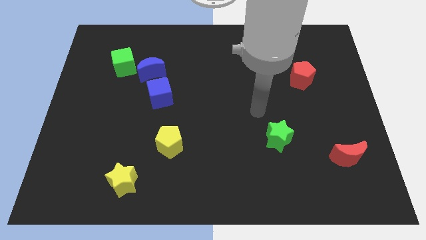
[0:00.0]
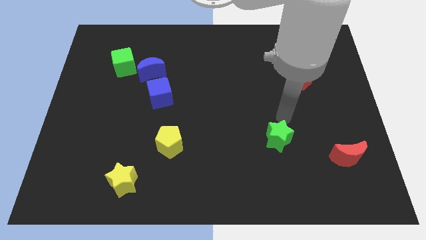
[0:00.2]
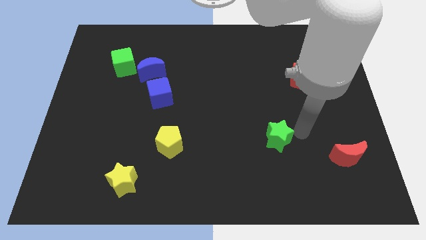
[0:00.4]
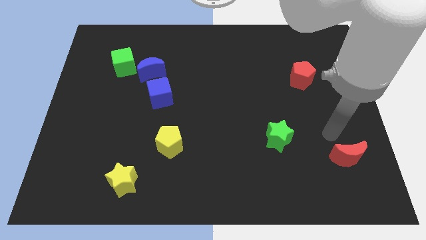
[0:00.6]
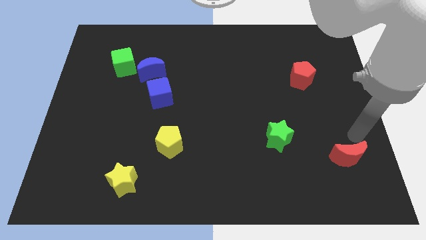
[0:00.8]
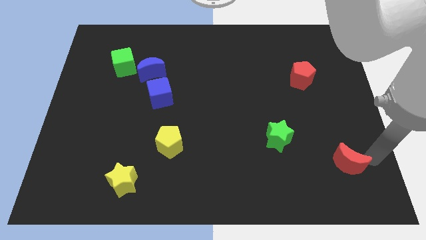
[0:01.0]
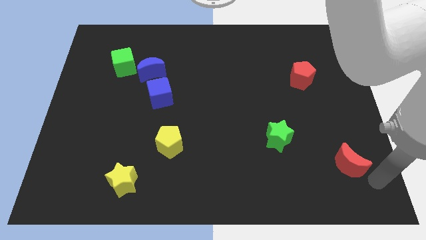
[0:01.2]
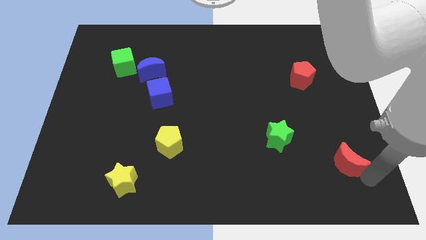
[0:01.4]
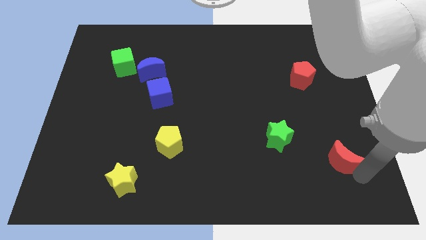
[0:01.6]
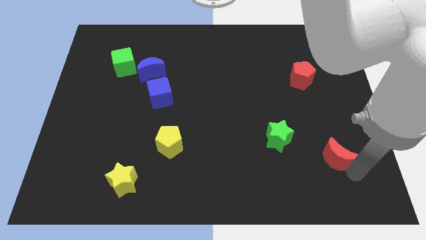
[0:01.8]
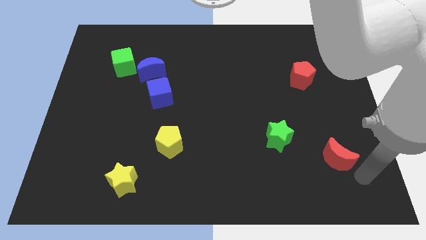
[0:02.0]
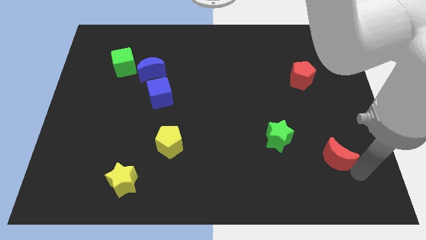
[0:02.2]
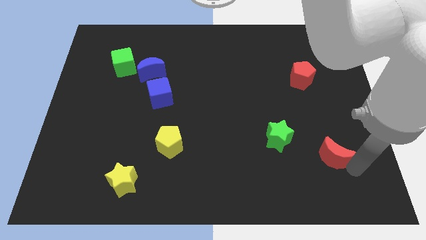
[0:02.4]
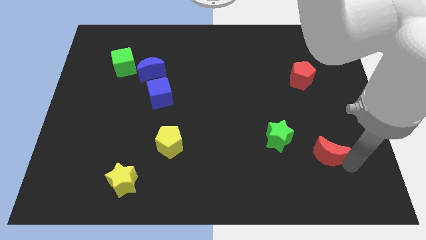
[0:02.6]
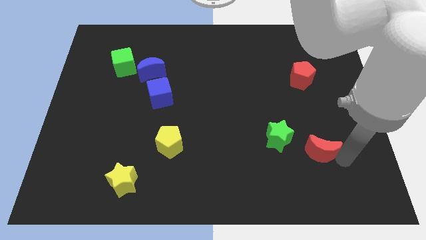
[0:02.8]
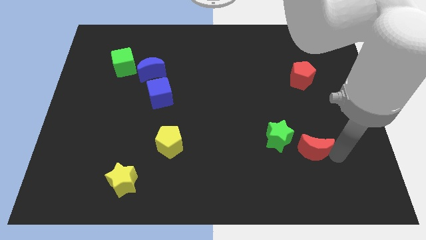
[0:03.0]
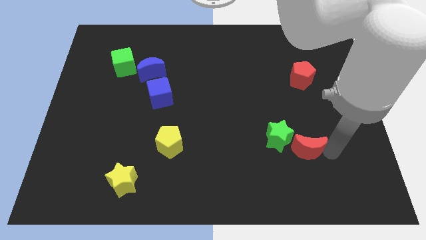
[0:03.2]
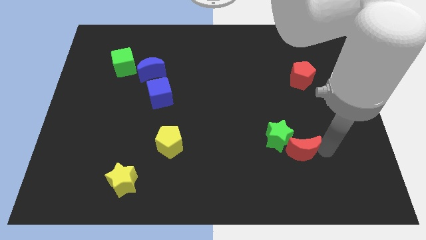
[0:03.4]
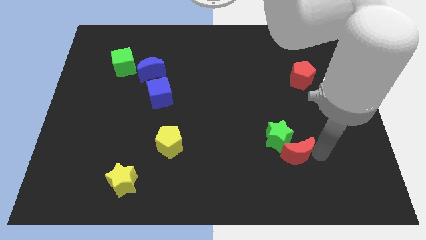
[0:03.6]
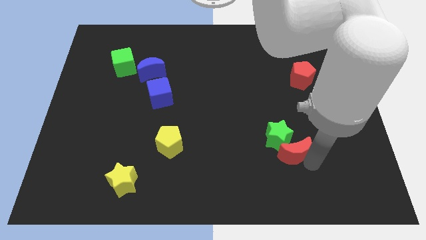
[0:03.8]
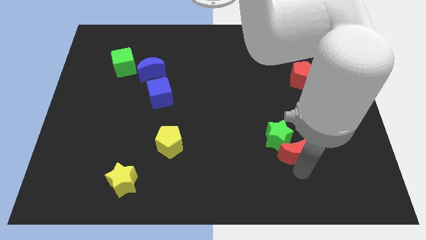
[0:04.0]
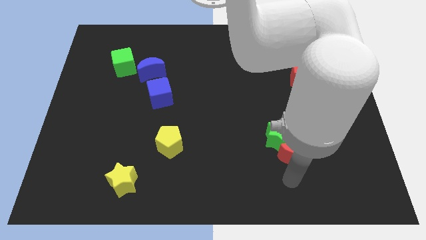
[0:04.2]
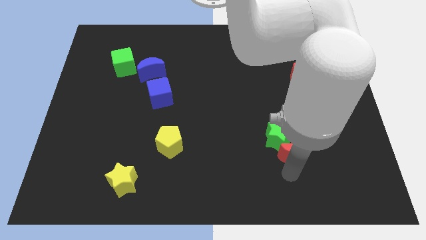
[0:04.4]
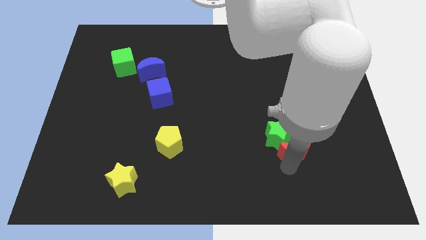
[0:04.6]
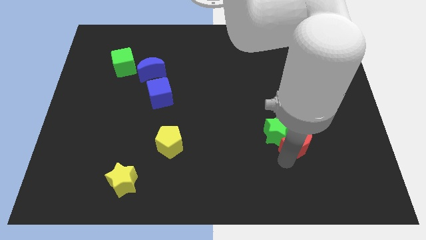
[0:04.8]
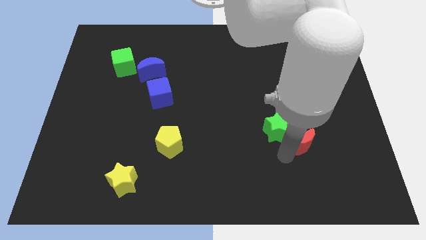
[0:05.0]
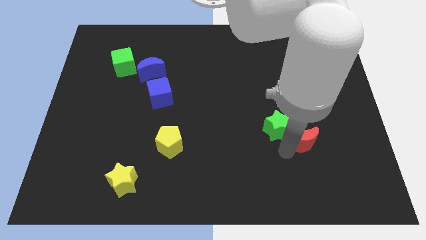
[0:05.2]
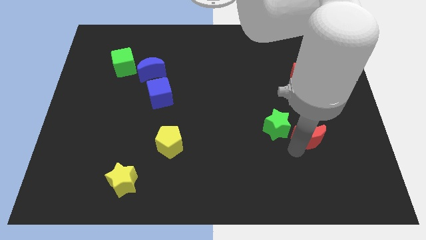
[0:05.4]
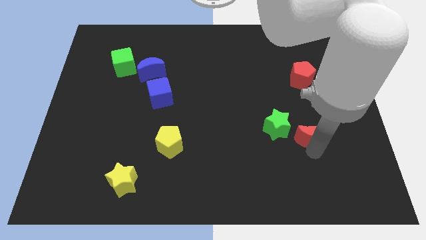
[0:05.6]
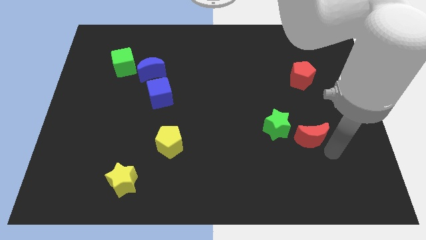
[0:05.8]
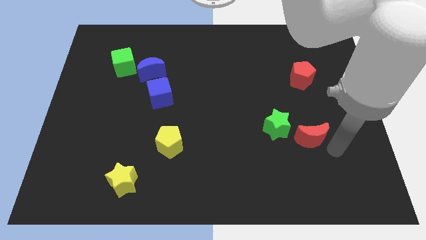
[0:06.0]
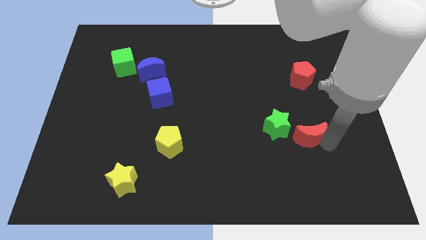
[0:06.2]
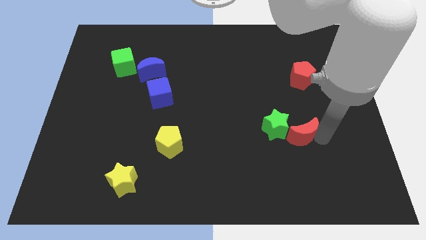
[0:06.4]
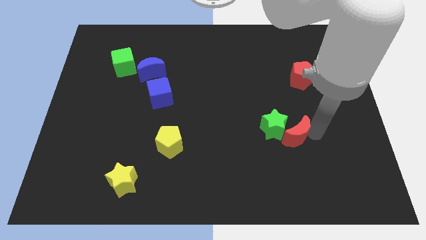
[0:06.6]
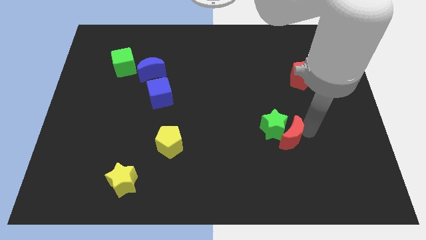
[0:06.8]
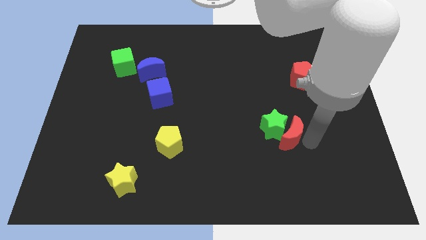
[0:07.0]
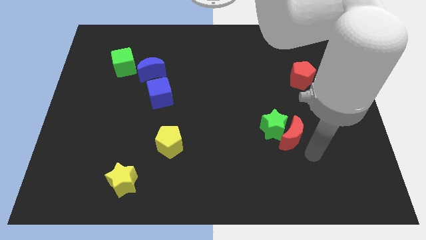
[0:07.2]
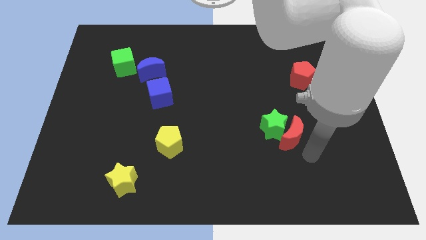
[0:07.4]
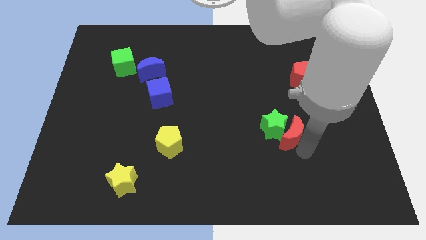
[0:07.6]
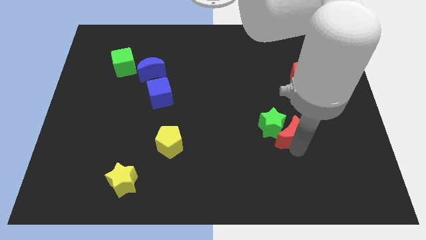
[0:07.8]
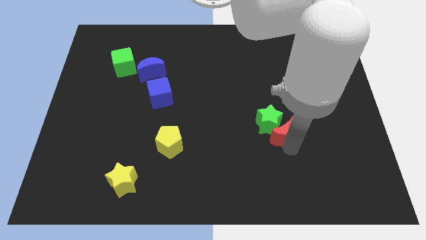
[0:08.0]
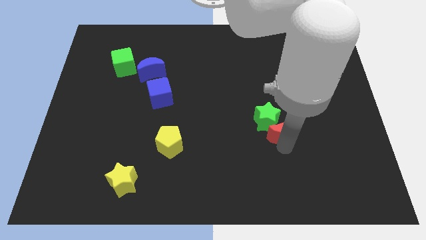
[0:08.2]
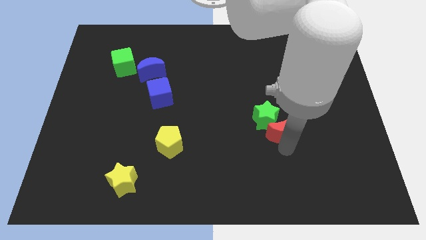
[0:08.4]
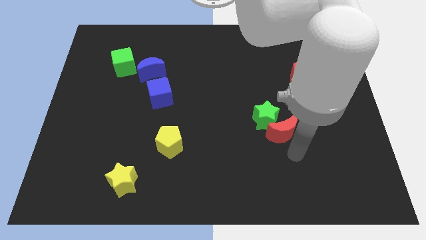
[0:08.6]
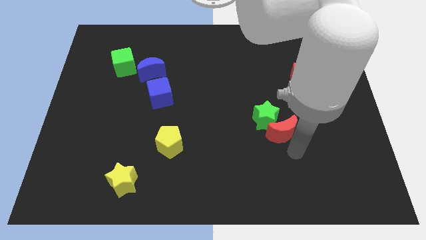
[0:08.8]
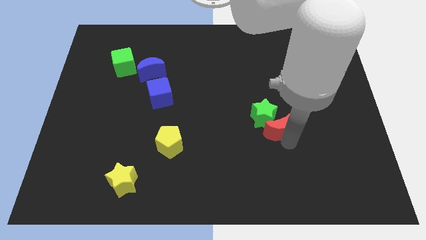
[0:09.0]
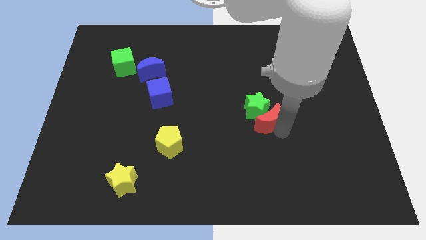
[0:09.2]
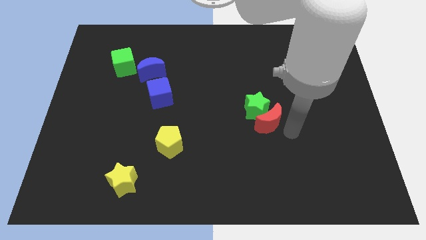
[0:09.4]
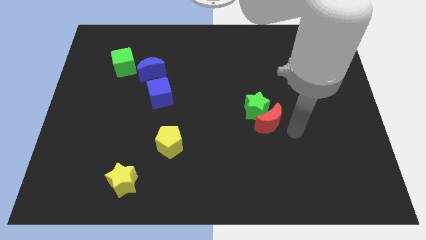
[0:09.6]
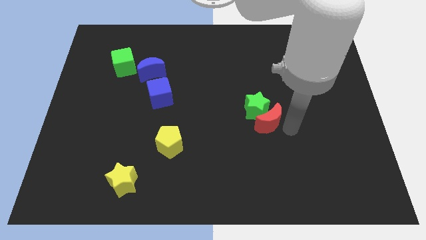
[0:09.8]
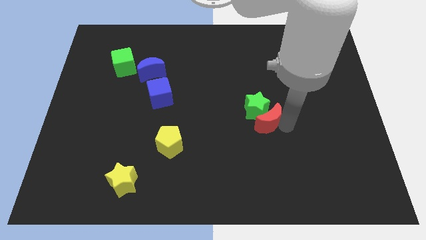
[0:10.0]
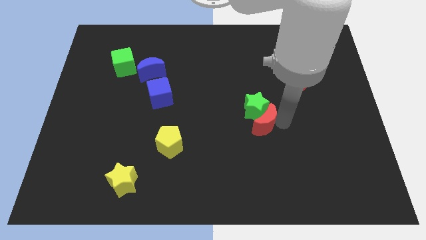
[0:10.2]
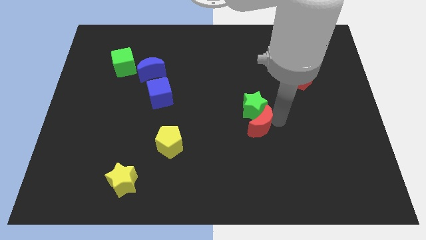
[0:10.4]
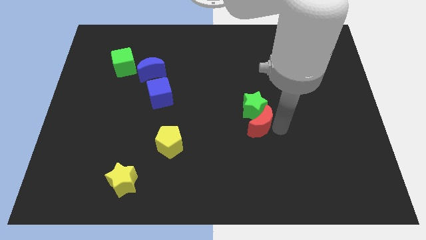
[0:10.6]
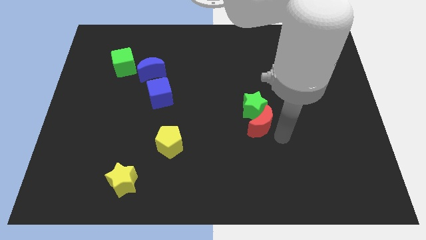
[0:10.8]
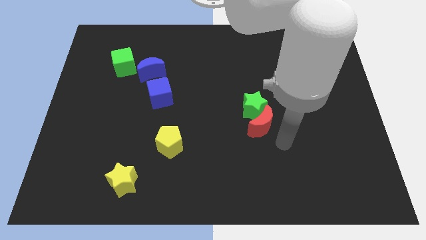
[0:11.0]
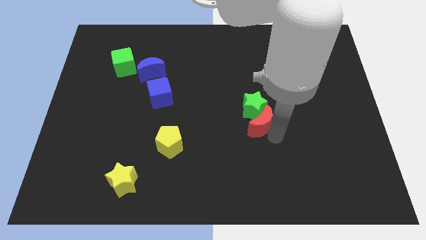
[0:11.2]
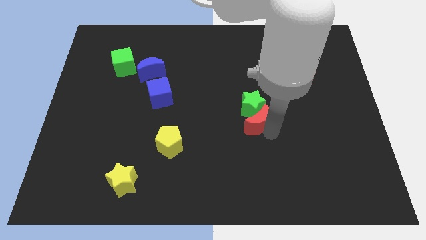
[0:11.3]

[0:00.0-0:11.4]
move the red moon to the middle
